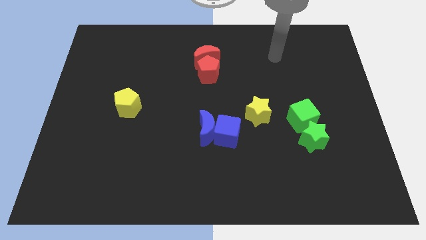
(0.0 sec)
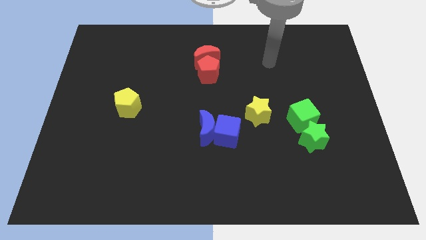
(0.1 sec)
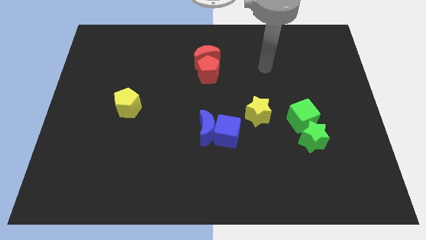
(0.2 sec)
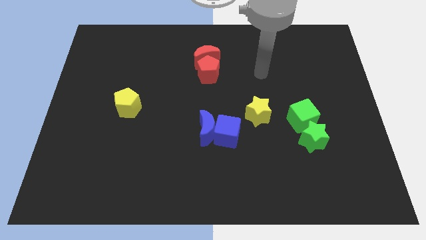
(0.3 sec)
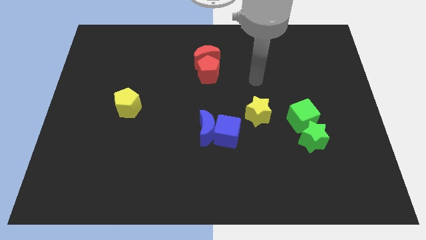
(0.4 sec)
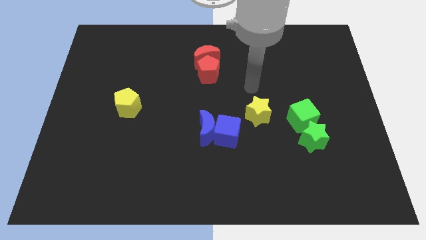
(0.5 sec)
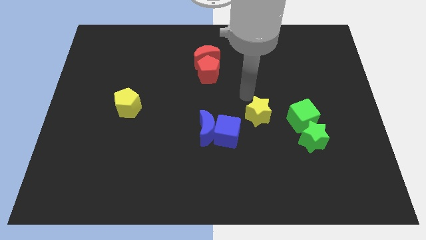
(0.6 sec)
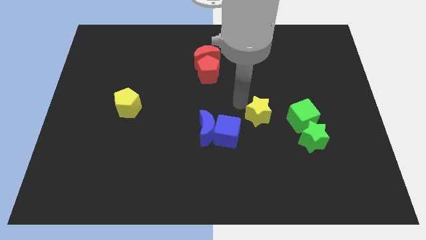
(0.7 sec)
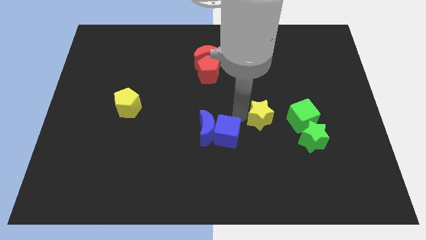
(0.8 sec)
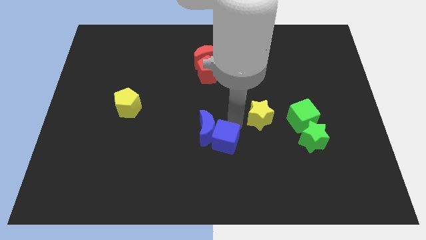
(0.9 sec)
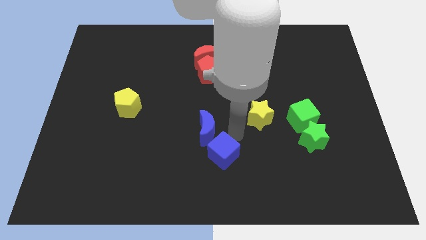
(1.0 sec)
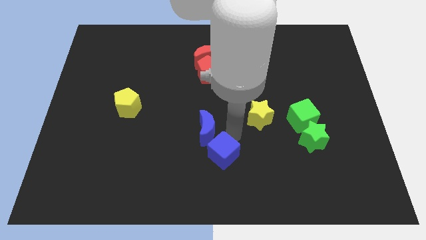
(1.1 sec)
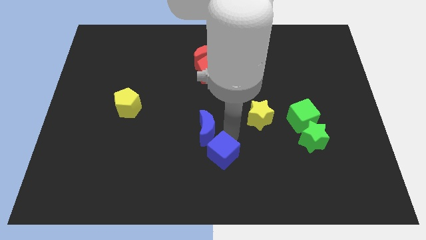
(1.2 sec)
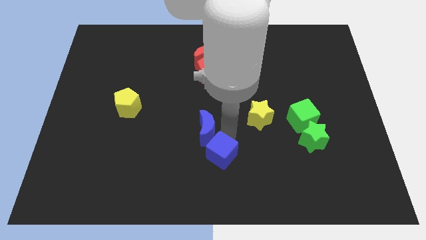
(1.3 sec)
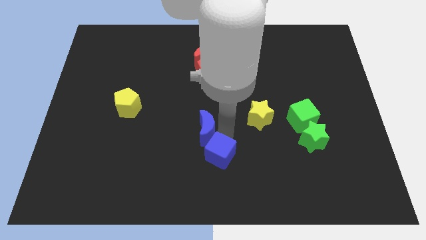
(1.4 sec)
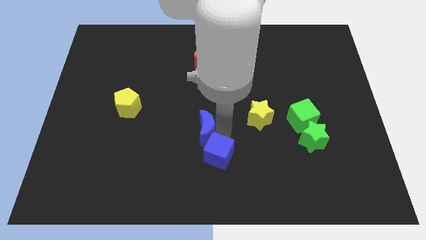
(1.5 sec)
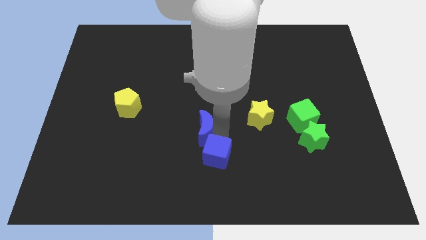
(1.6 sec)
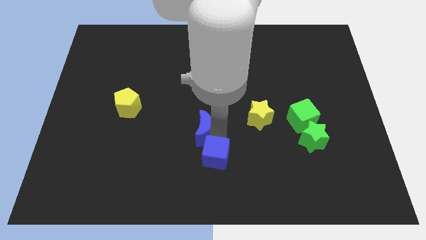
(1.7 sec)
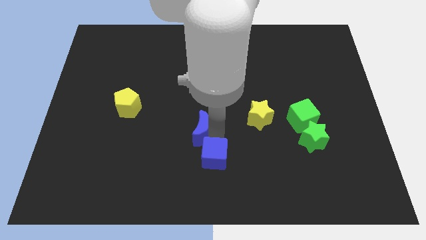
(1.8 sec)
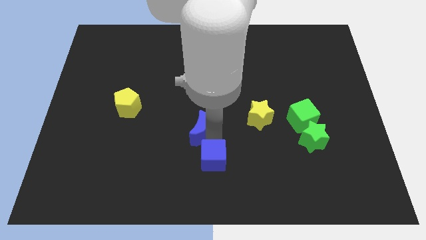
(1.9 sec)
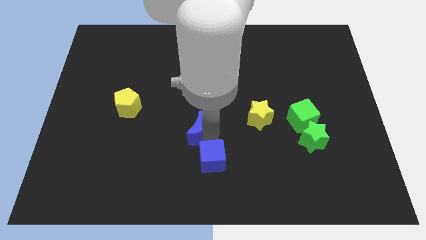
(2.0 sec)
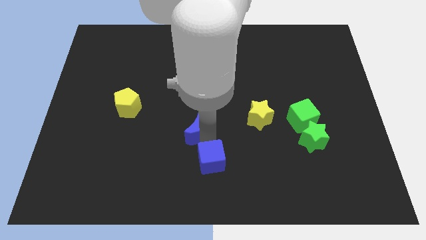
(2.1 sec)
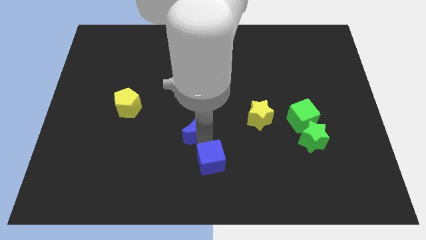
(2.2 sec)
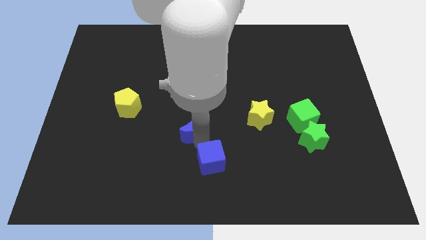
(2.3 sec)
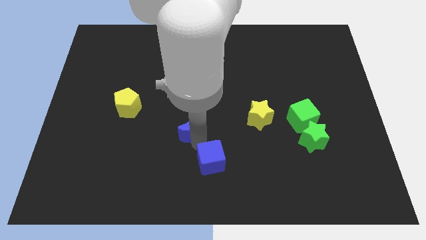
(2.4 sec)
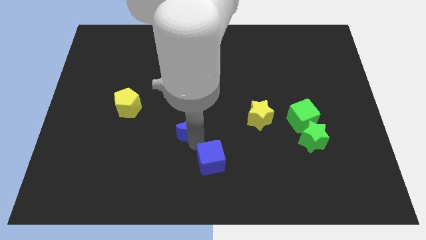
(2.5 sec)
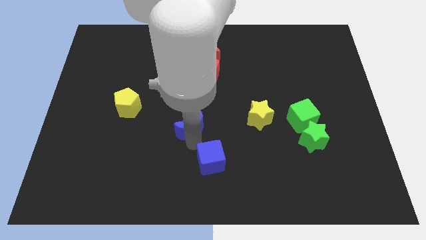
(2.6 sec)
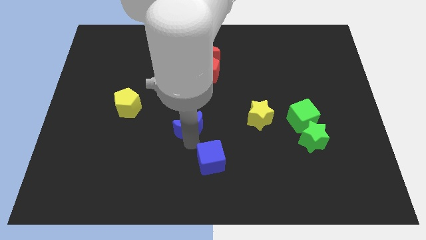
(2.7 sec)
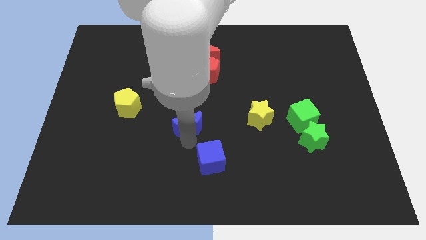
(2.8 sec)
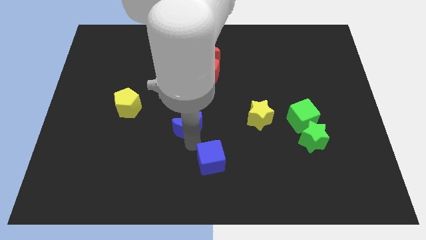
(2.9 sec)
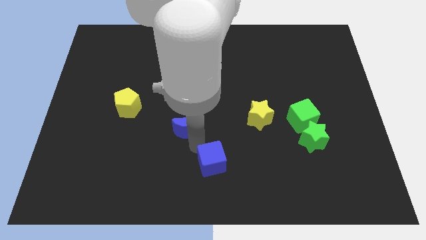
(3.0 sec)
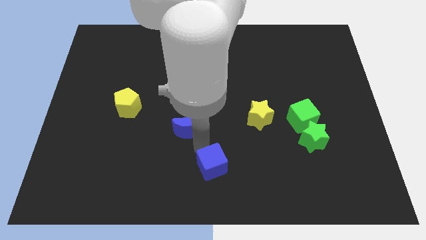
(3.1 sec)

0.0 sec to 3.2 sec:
separate the blue moon from the blue cube

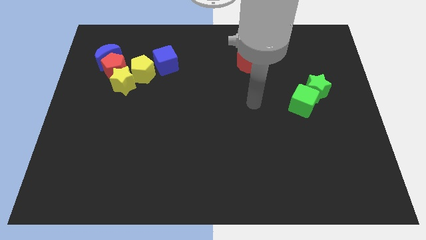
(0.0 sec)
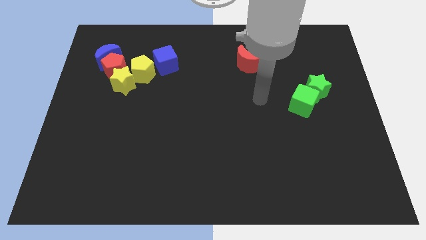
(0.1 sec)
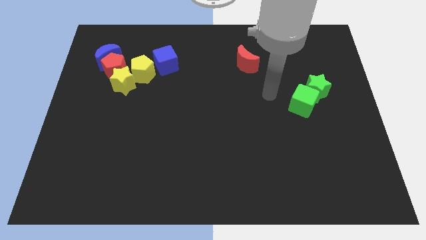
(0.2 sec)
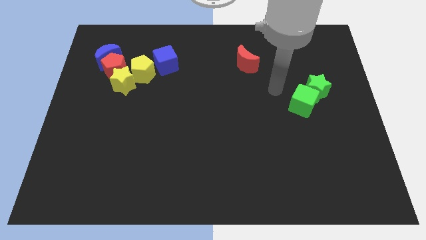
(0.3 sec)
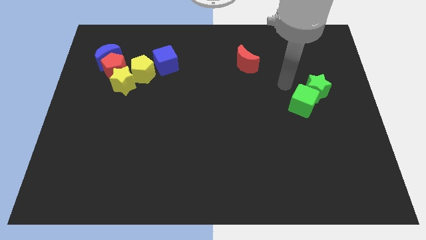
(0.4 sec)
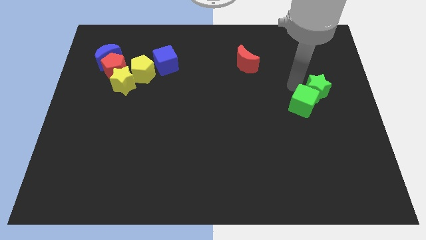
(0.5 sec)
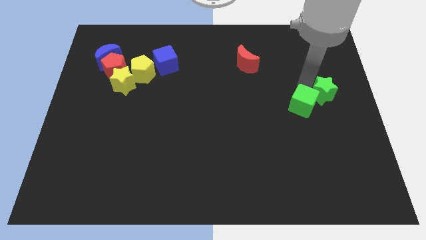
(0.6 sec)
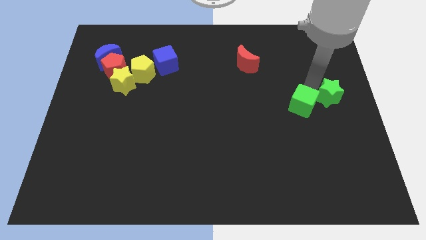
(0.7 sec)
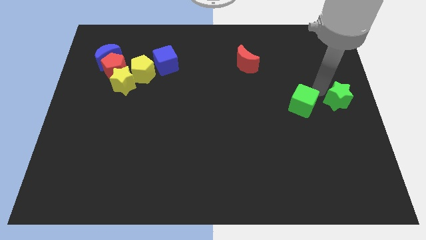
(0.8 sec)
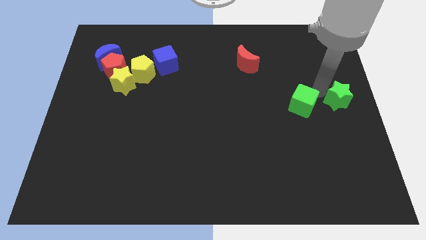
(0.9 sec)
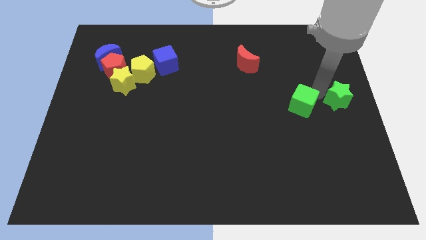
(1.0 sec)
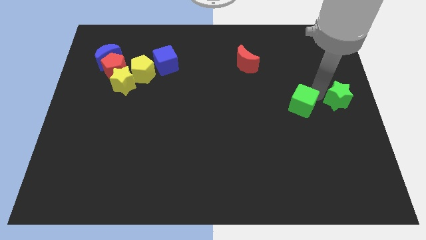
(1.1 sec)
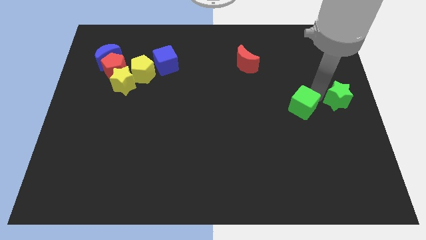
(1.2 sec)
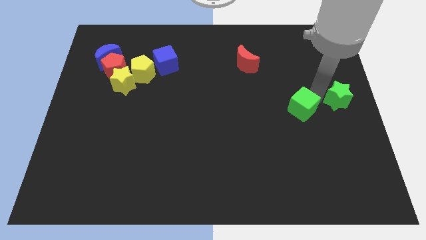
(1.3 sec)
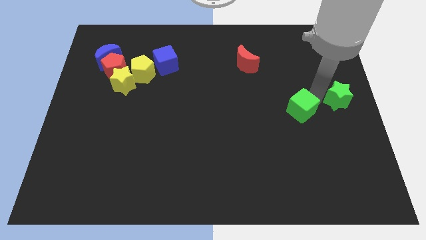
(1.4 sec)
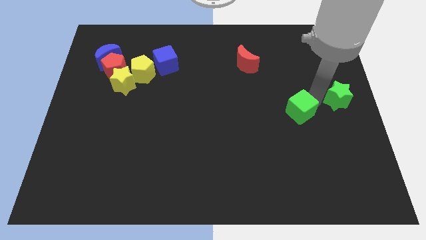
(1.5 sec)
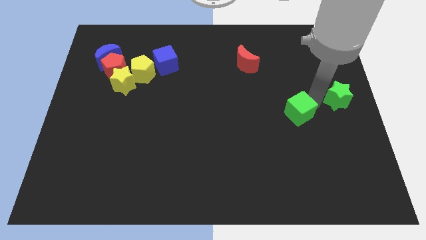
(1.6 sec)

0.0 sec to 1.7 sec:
move the green cube away from the green star

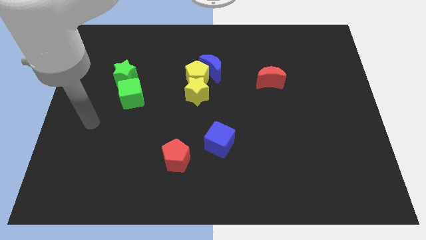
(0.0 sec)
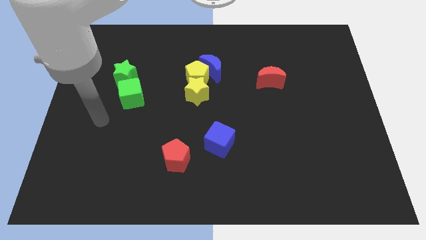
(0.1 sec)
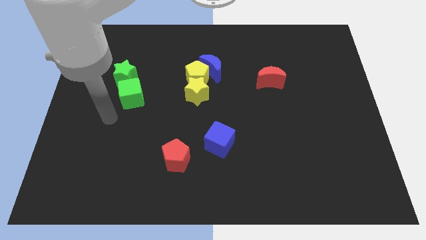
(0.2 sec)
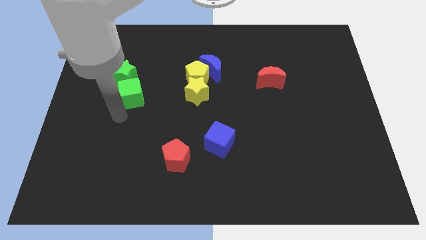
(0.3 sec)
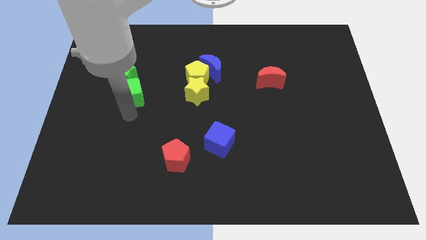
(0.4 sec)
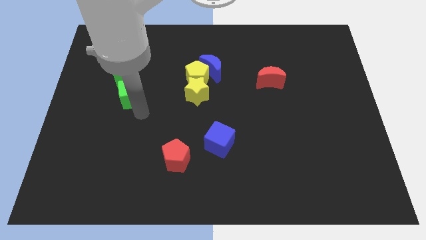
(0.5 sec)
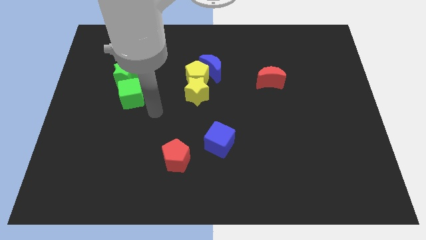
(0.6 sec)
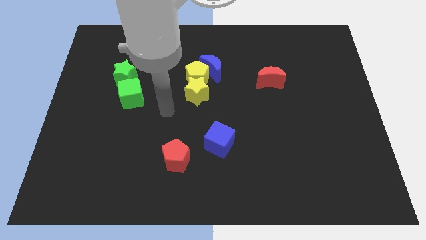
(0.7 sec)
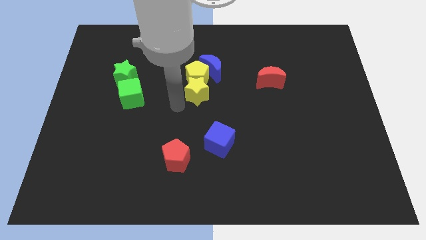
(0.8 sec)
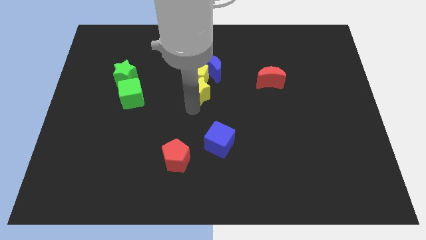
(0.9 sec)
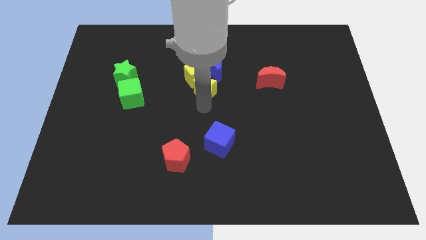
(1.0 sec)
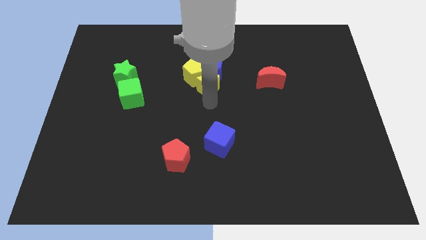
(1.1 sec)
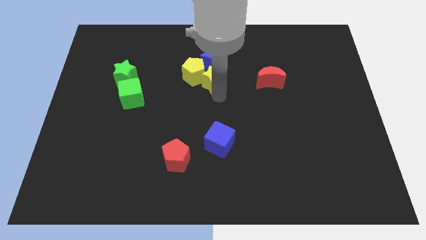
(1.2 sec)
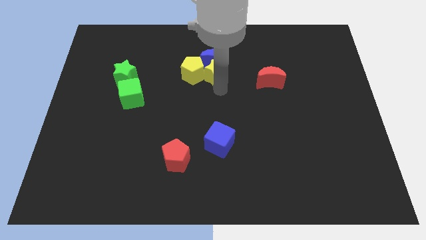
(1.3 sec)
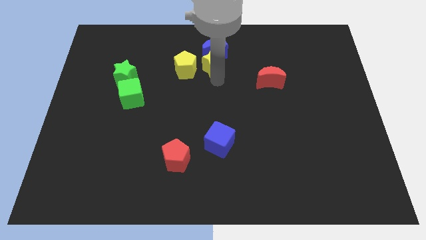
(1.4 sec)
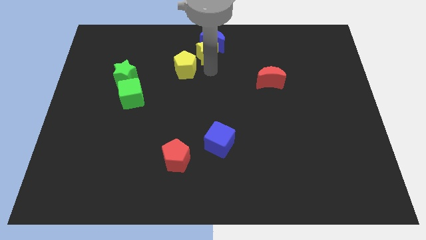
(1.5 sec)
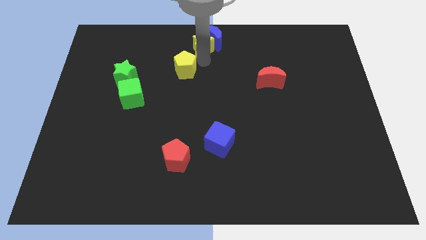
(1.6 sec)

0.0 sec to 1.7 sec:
separate the yellow pentagon from the yellow star and blue moon

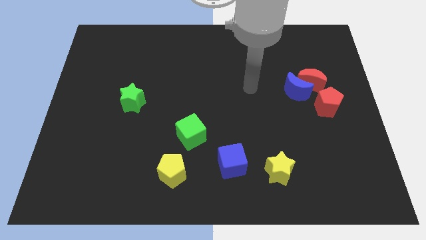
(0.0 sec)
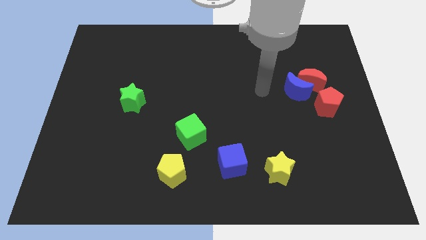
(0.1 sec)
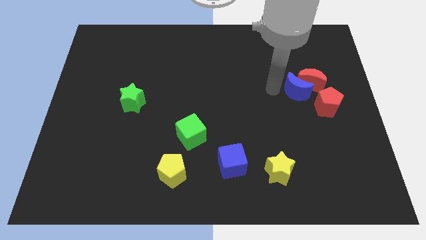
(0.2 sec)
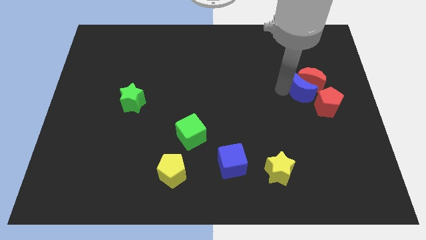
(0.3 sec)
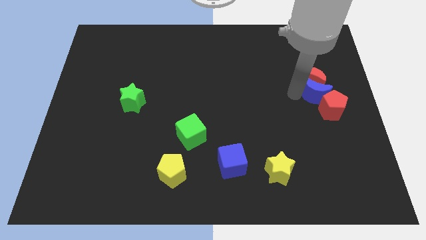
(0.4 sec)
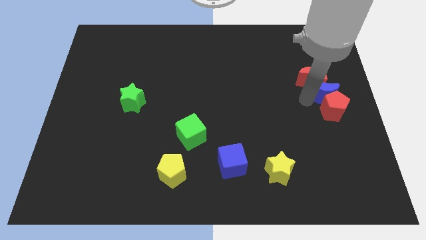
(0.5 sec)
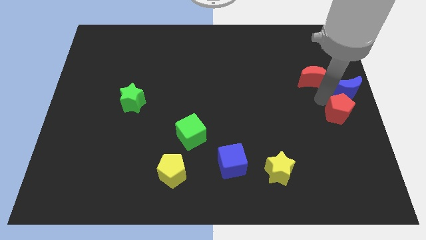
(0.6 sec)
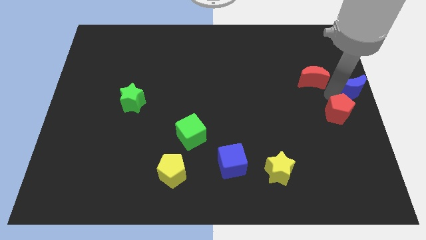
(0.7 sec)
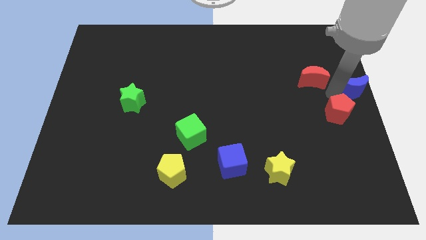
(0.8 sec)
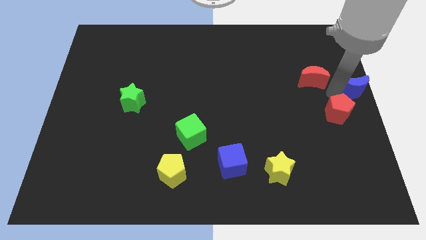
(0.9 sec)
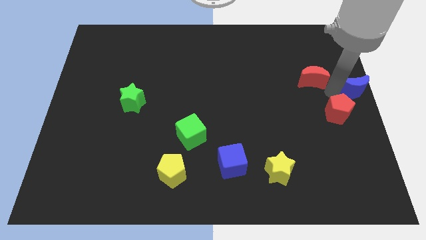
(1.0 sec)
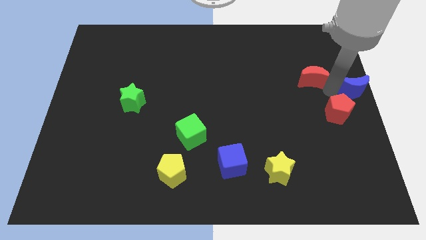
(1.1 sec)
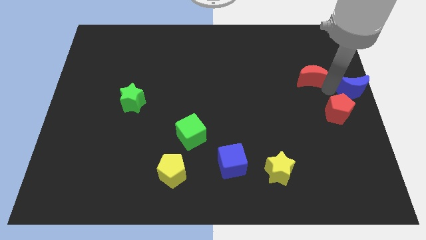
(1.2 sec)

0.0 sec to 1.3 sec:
pull the red moon apart from the blue moon and red pentagon

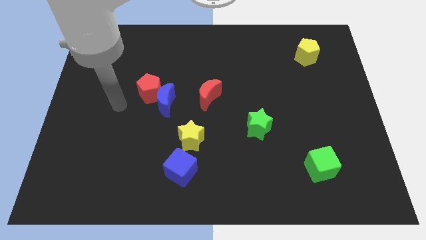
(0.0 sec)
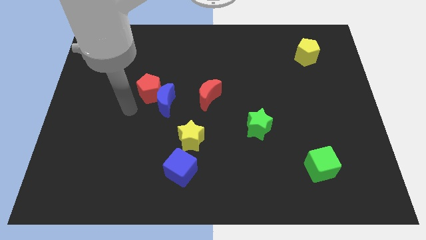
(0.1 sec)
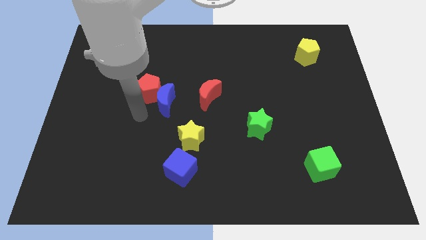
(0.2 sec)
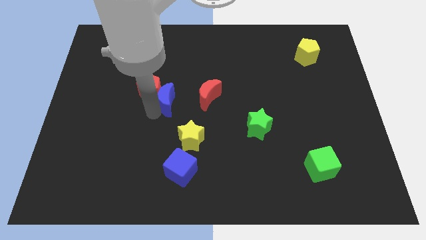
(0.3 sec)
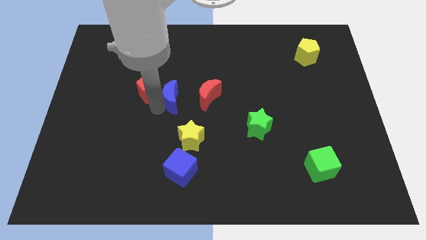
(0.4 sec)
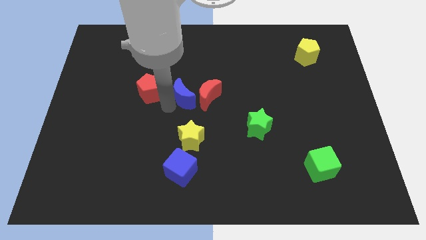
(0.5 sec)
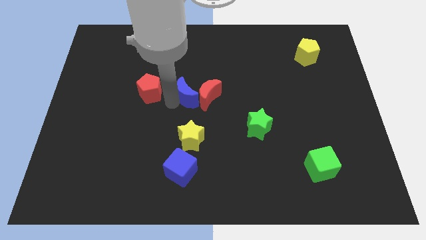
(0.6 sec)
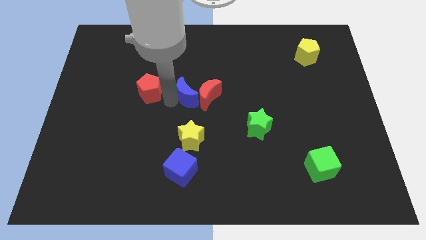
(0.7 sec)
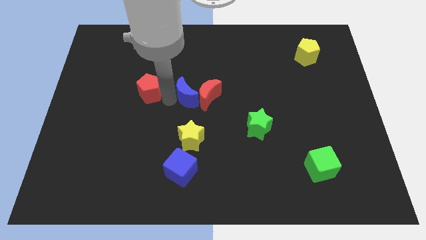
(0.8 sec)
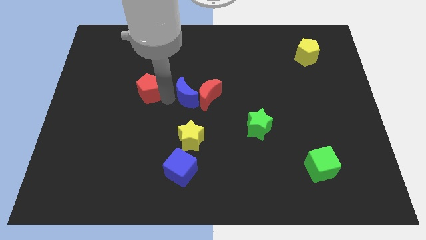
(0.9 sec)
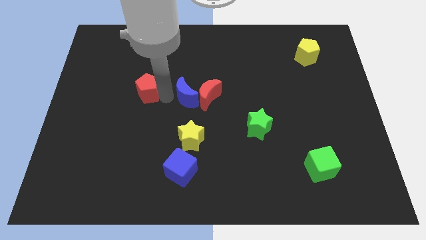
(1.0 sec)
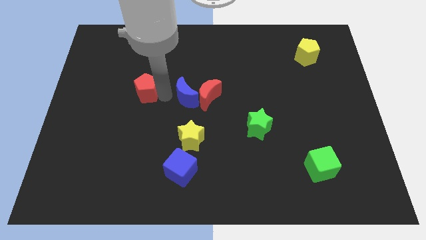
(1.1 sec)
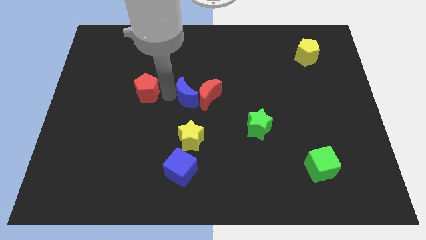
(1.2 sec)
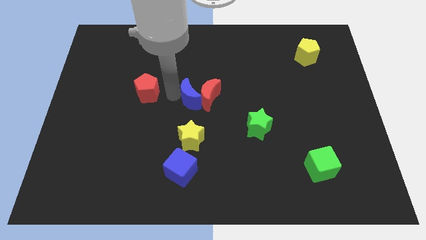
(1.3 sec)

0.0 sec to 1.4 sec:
move the red pentagon away from the blue moon

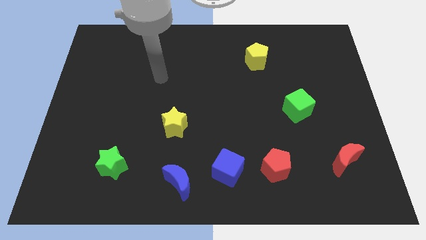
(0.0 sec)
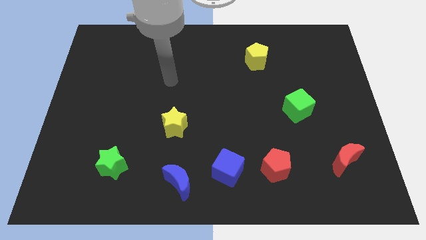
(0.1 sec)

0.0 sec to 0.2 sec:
separate the red pentagon from the blue cube
